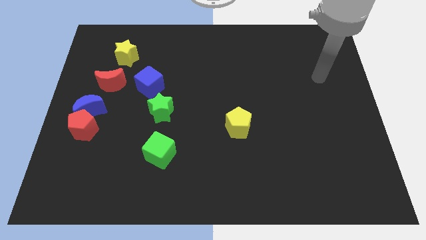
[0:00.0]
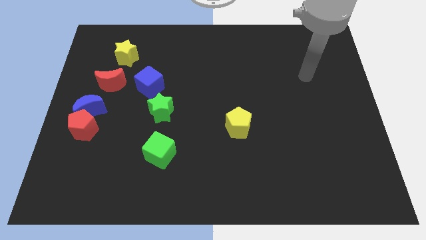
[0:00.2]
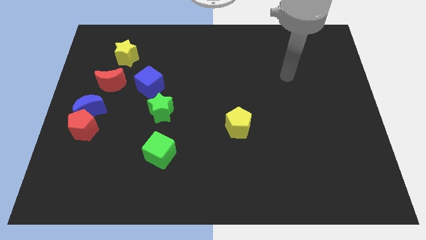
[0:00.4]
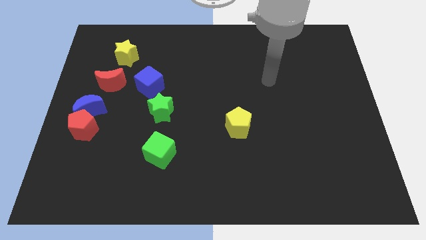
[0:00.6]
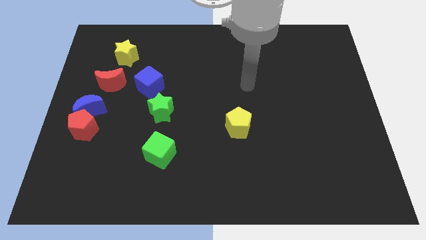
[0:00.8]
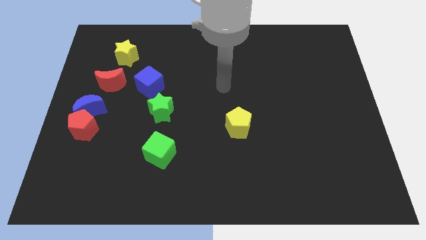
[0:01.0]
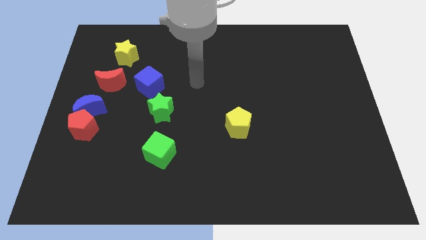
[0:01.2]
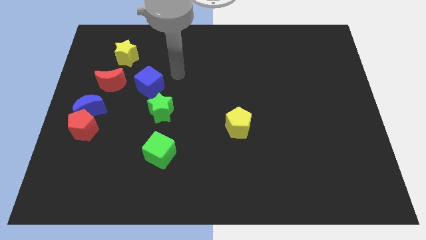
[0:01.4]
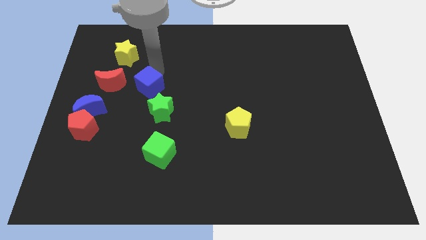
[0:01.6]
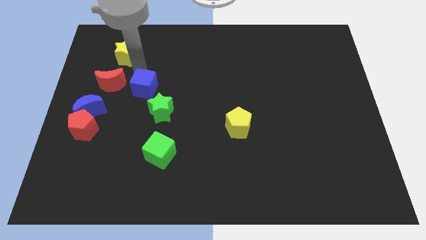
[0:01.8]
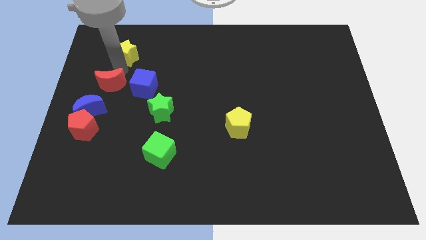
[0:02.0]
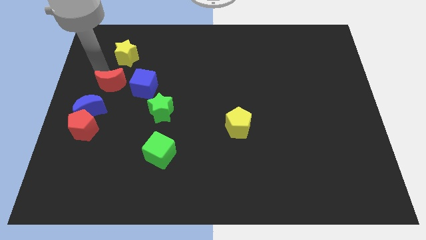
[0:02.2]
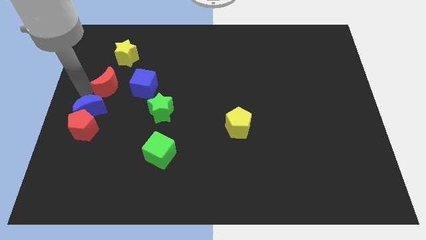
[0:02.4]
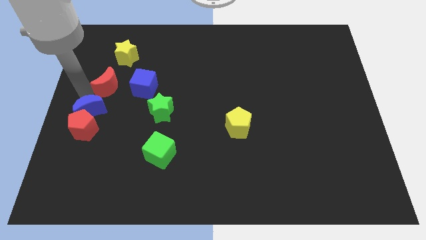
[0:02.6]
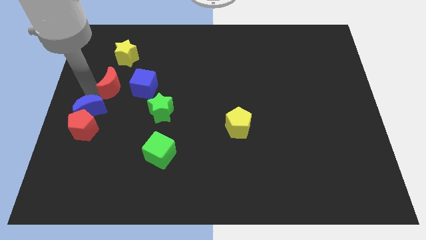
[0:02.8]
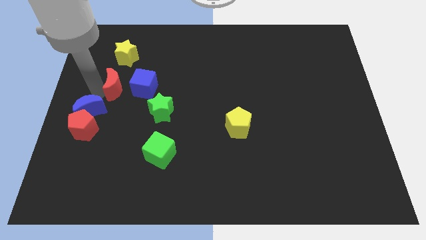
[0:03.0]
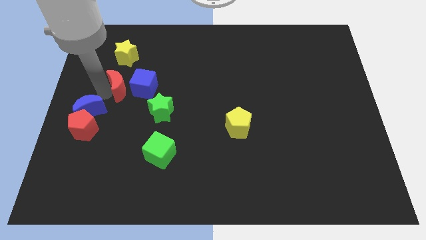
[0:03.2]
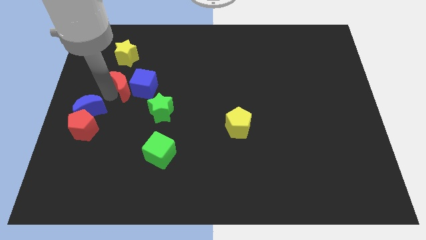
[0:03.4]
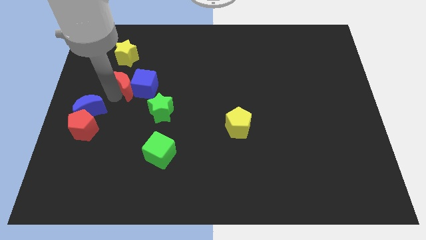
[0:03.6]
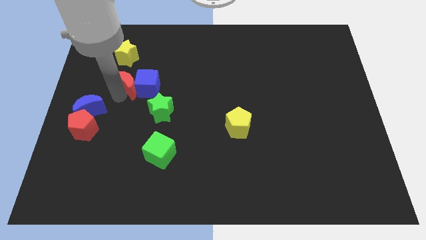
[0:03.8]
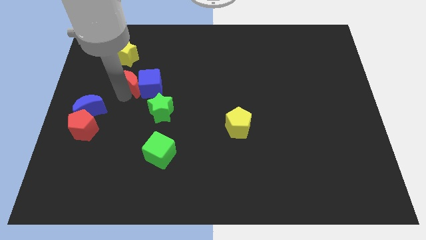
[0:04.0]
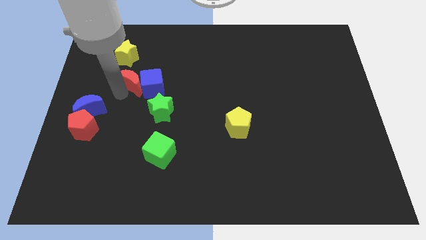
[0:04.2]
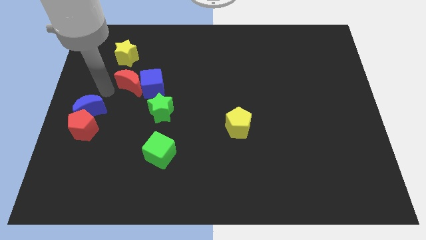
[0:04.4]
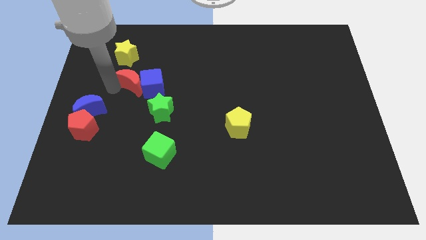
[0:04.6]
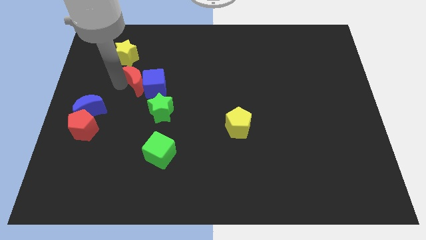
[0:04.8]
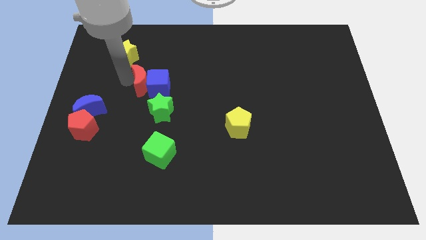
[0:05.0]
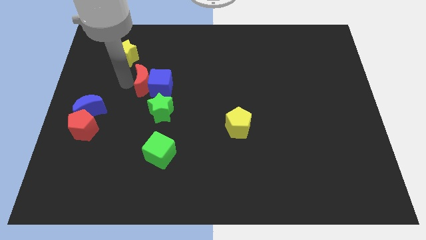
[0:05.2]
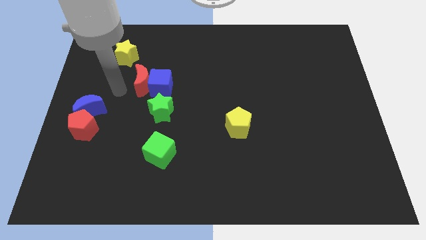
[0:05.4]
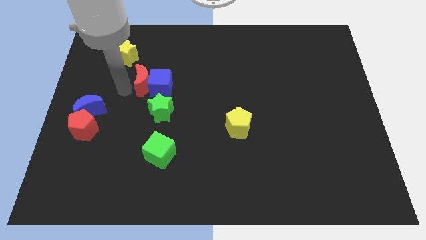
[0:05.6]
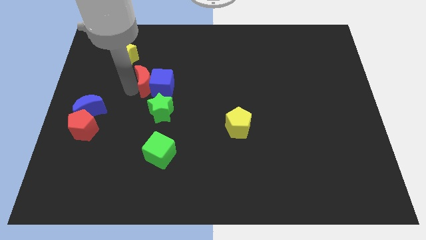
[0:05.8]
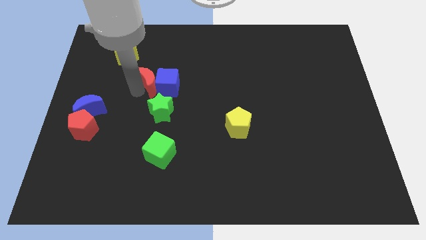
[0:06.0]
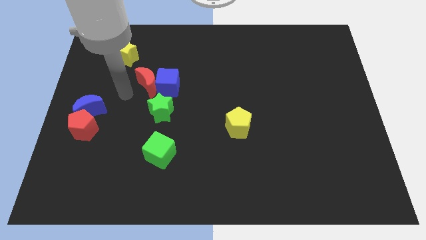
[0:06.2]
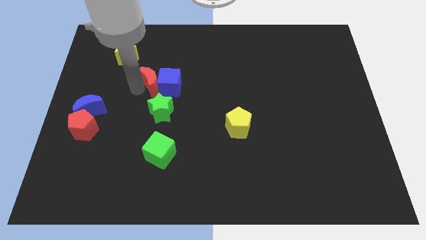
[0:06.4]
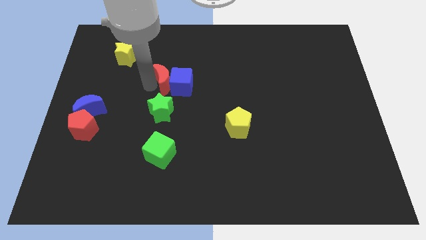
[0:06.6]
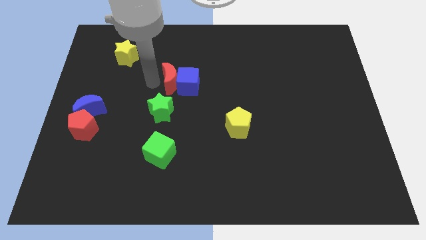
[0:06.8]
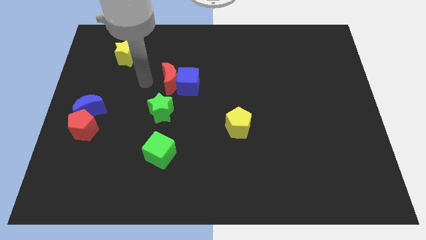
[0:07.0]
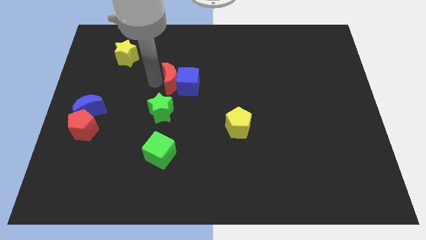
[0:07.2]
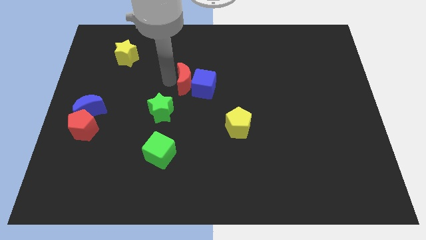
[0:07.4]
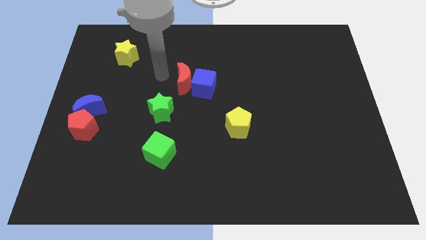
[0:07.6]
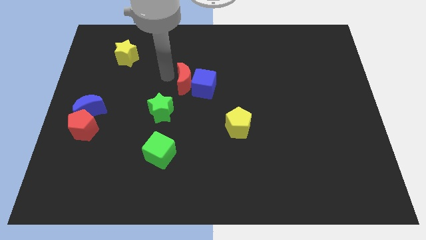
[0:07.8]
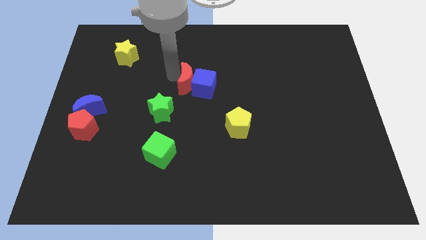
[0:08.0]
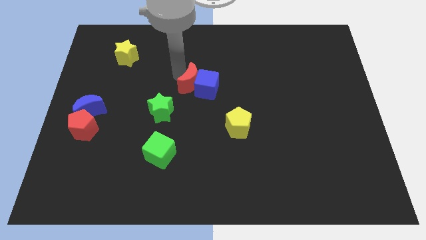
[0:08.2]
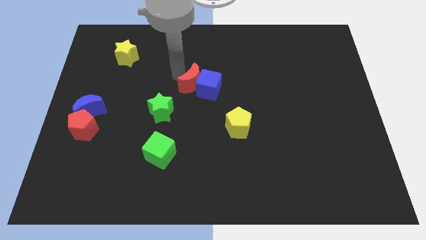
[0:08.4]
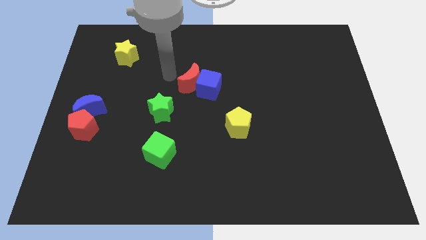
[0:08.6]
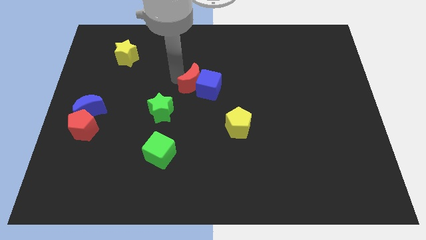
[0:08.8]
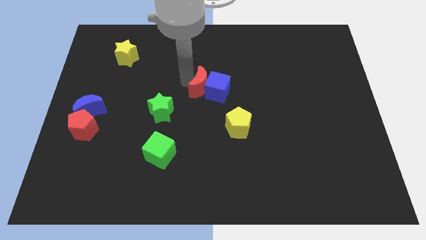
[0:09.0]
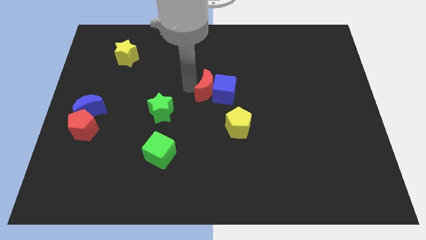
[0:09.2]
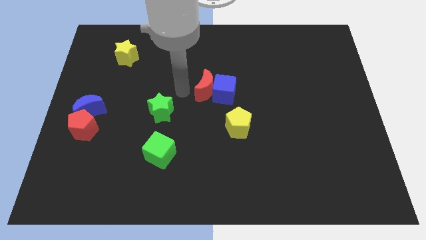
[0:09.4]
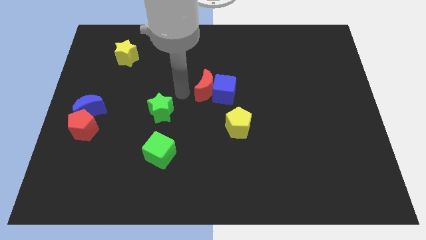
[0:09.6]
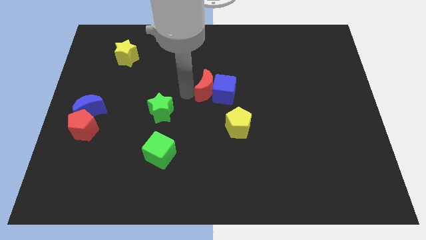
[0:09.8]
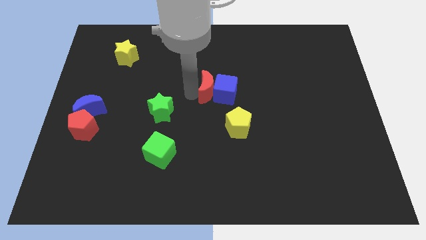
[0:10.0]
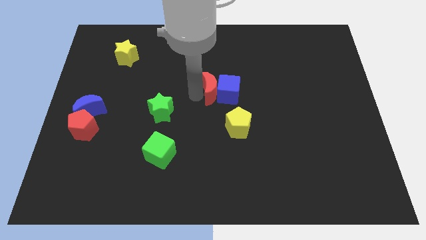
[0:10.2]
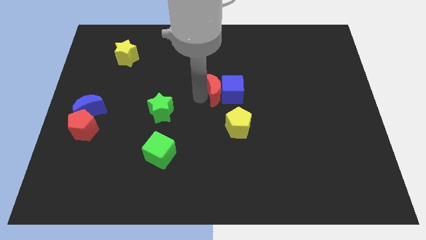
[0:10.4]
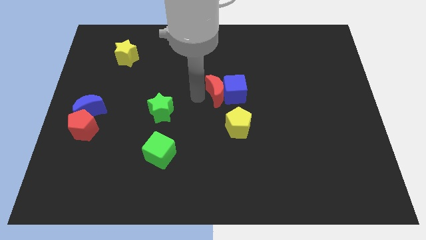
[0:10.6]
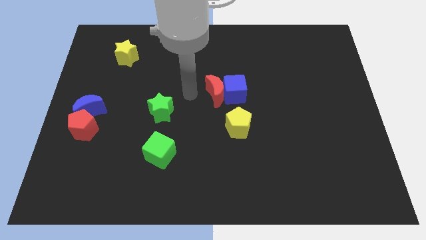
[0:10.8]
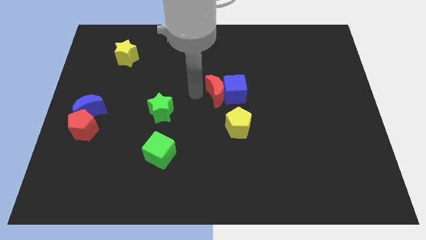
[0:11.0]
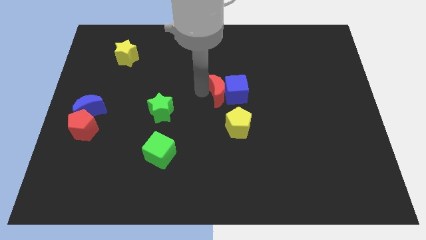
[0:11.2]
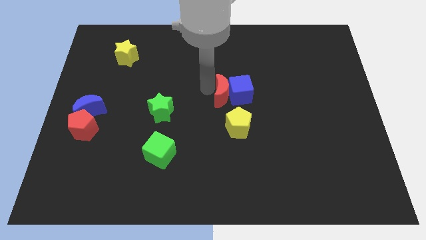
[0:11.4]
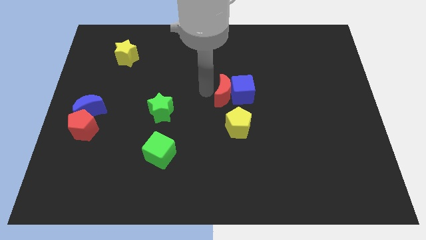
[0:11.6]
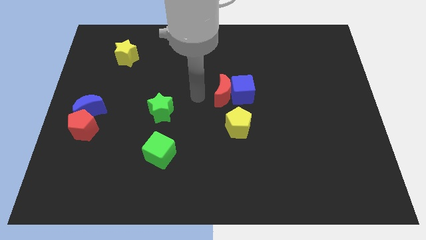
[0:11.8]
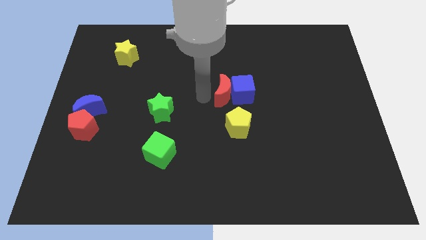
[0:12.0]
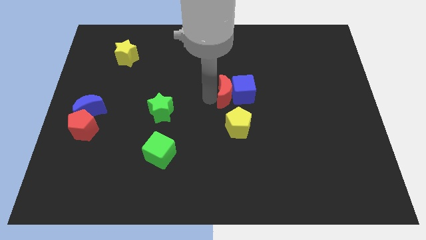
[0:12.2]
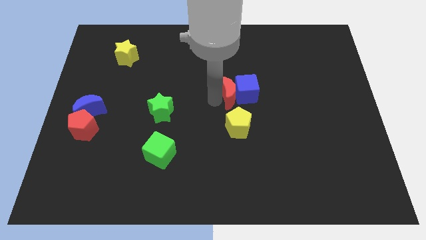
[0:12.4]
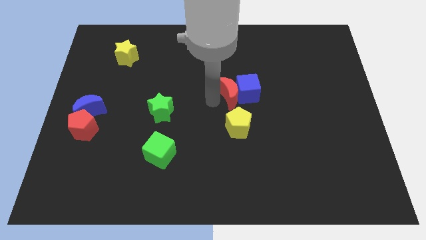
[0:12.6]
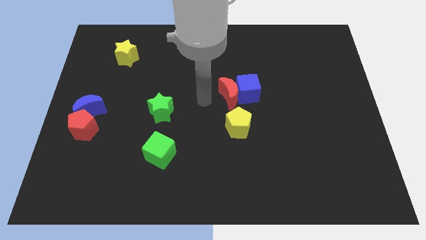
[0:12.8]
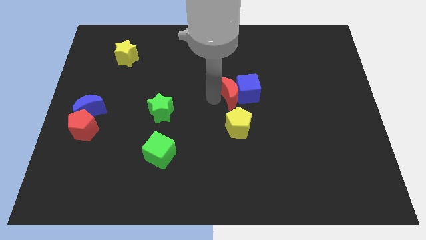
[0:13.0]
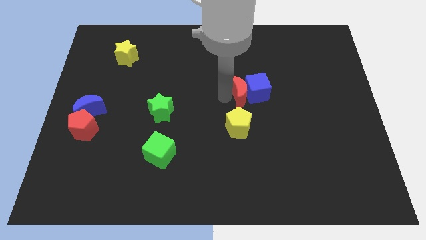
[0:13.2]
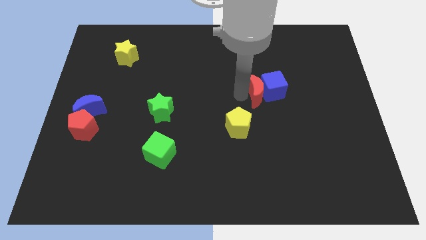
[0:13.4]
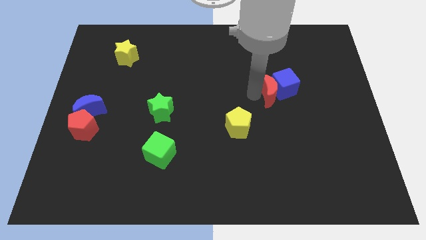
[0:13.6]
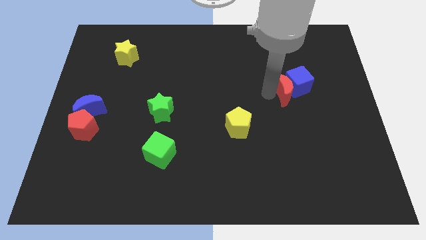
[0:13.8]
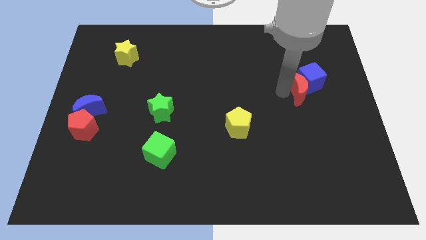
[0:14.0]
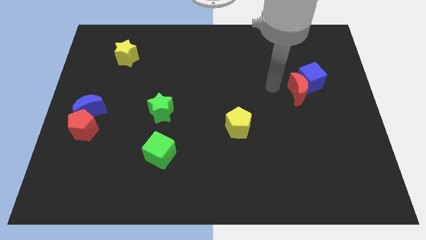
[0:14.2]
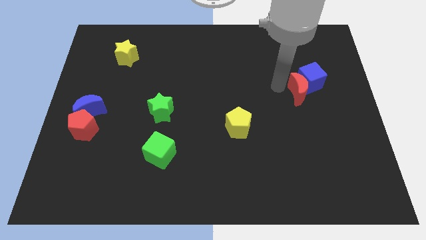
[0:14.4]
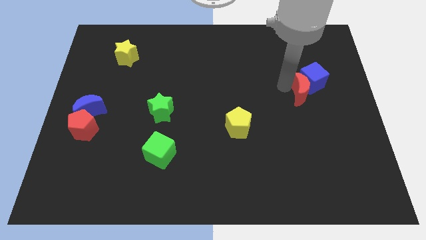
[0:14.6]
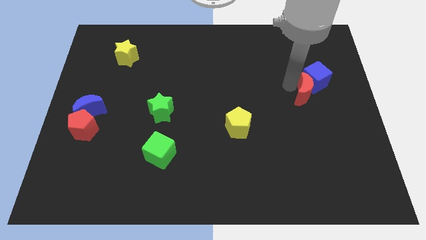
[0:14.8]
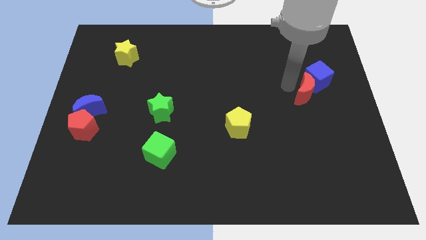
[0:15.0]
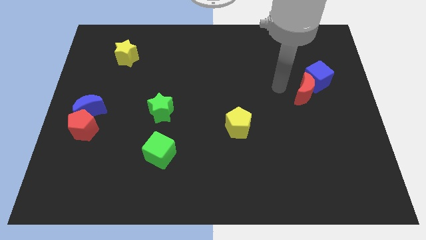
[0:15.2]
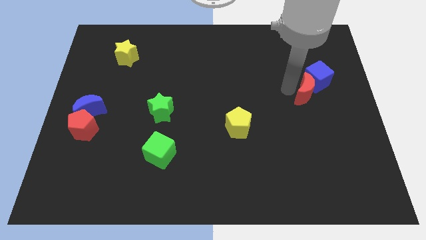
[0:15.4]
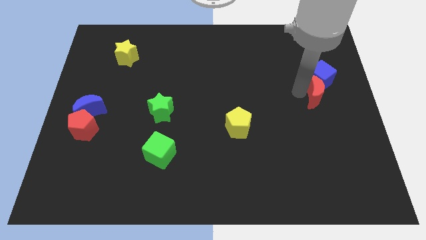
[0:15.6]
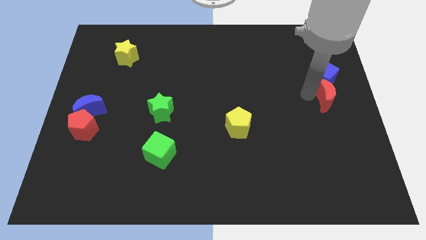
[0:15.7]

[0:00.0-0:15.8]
slide the red moon to the right side of the board
